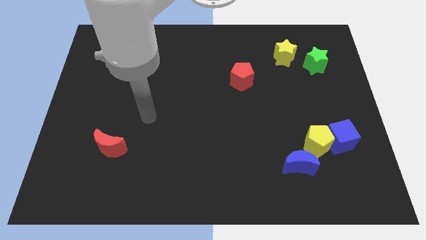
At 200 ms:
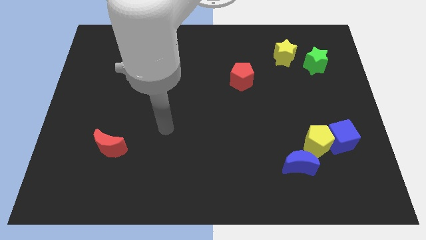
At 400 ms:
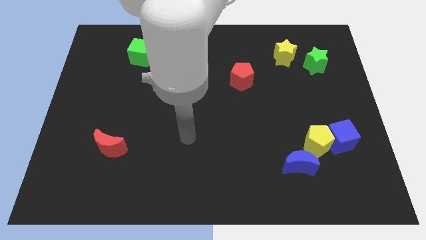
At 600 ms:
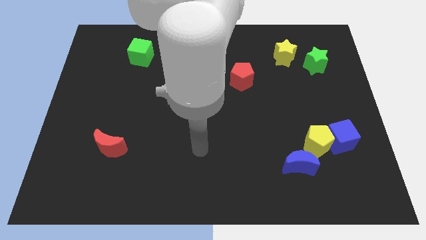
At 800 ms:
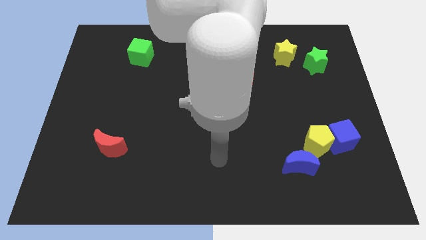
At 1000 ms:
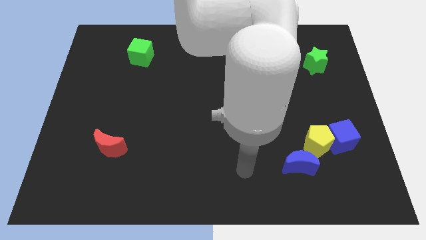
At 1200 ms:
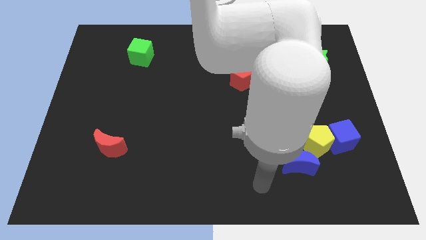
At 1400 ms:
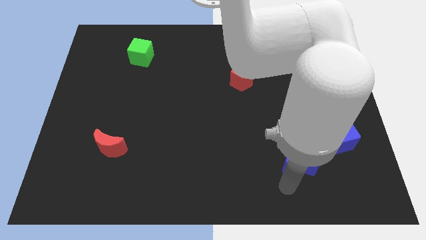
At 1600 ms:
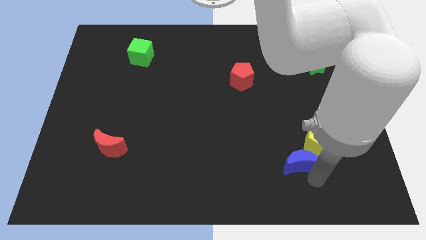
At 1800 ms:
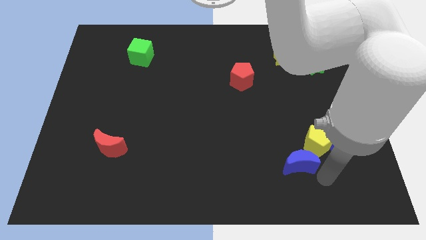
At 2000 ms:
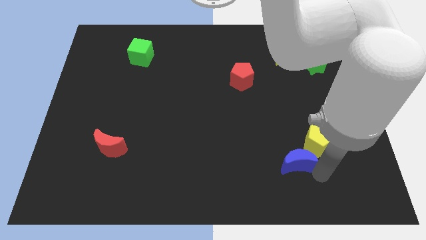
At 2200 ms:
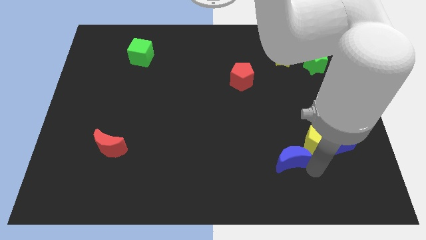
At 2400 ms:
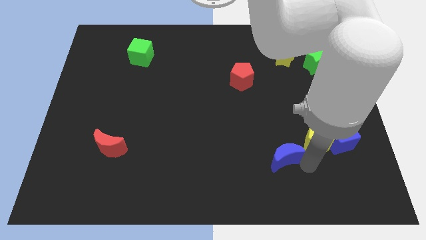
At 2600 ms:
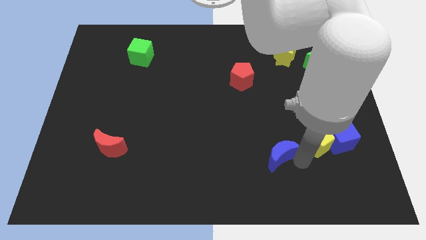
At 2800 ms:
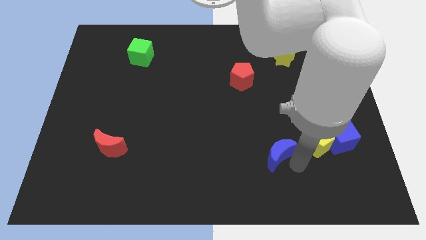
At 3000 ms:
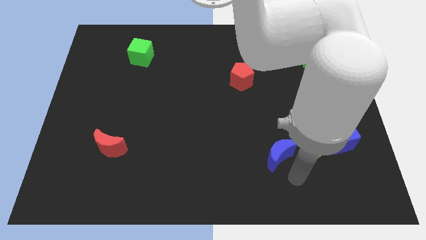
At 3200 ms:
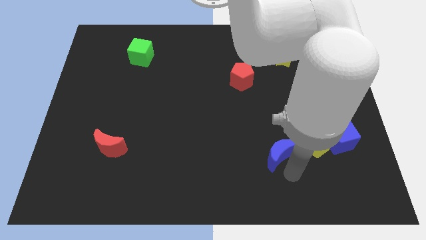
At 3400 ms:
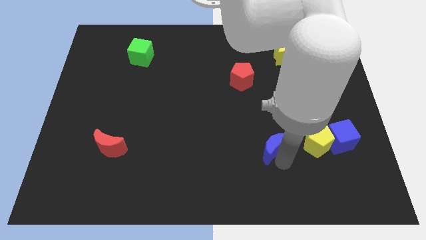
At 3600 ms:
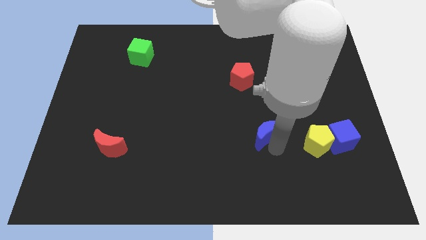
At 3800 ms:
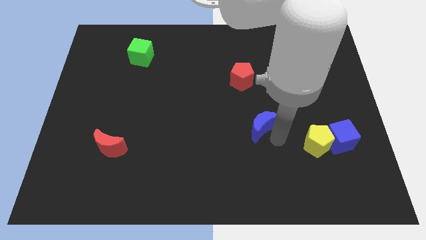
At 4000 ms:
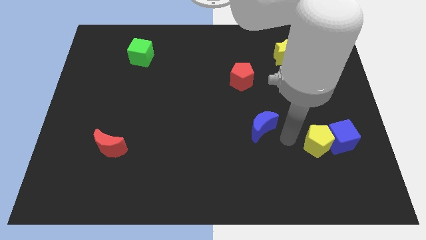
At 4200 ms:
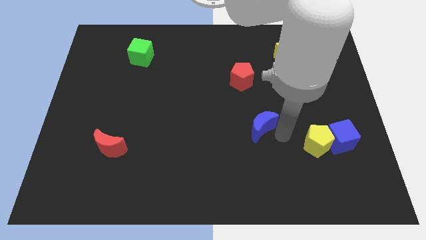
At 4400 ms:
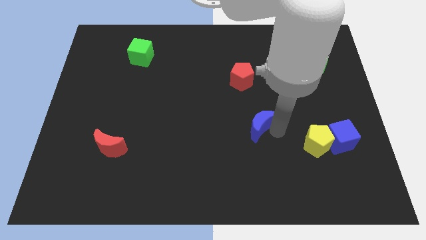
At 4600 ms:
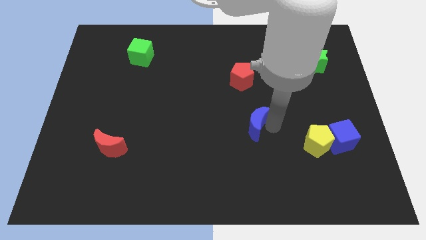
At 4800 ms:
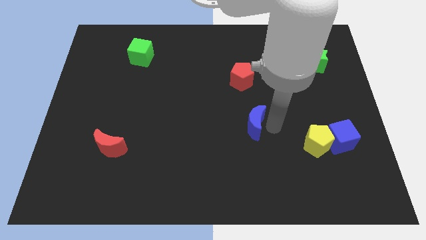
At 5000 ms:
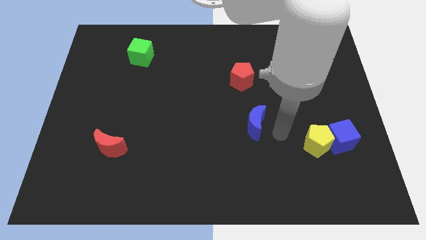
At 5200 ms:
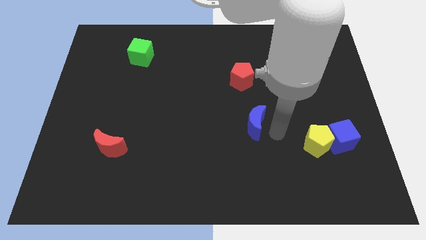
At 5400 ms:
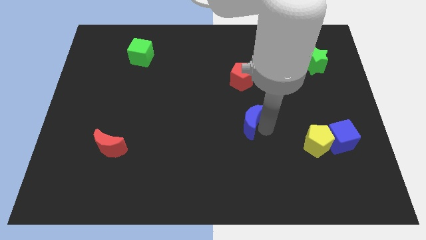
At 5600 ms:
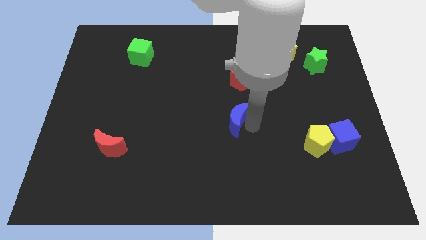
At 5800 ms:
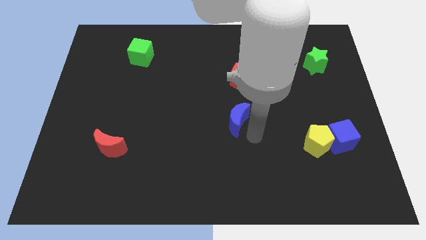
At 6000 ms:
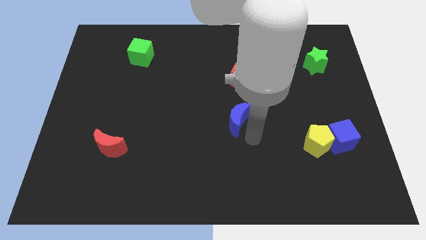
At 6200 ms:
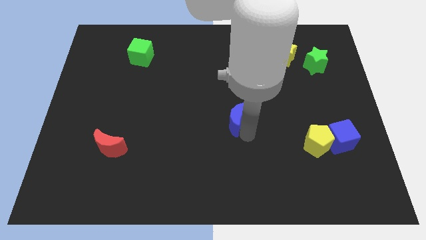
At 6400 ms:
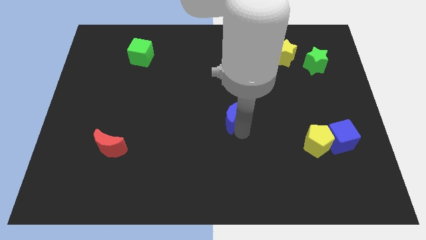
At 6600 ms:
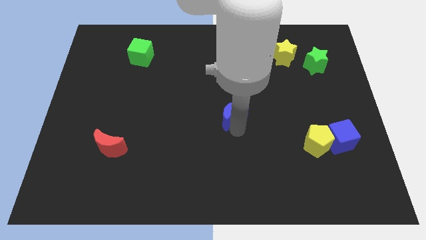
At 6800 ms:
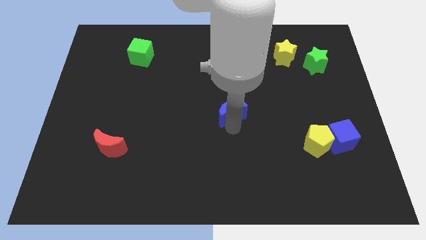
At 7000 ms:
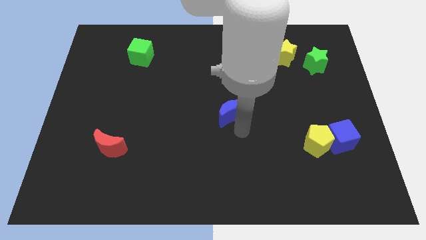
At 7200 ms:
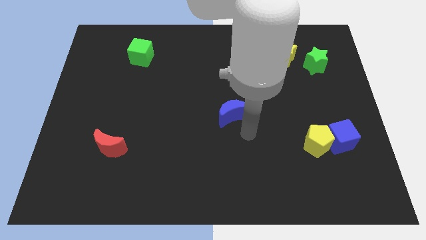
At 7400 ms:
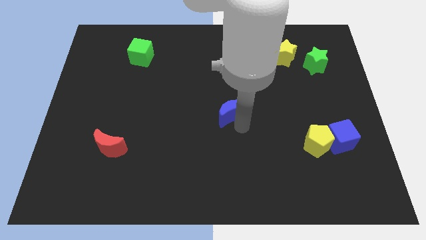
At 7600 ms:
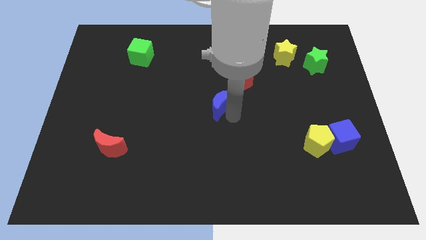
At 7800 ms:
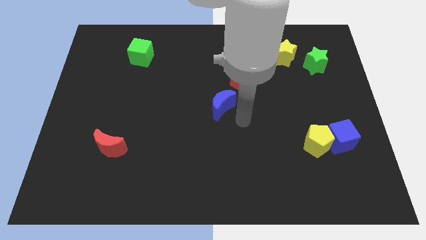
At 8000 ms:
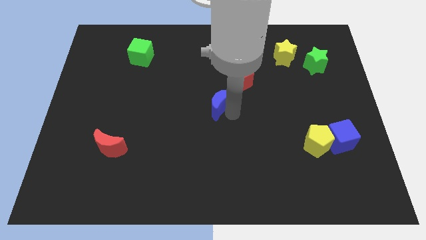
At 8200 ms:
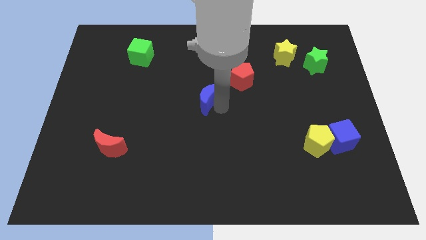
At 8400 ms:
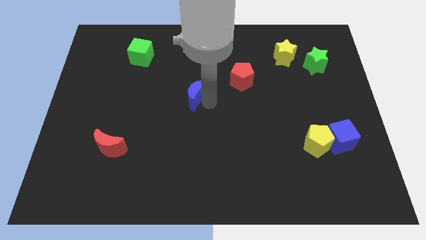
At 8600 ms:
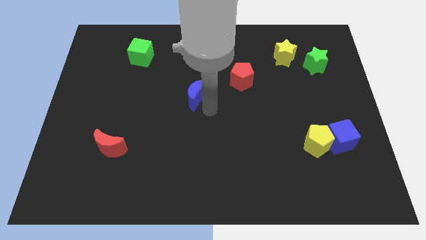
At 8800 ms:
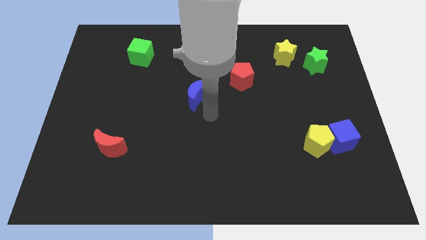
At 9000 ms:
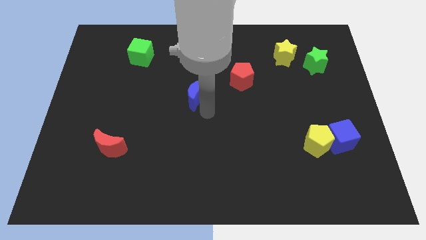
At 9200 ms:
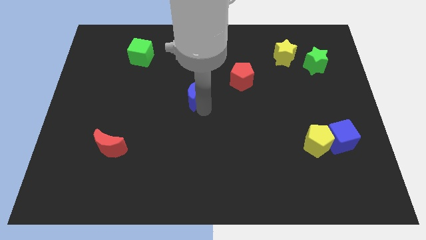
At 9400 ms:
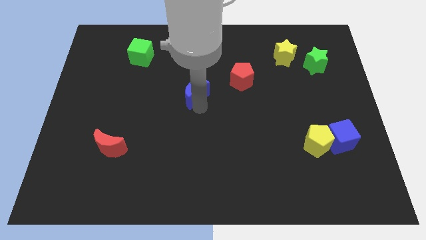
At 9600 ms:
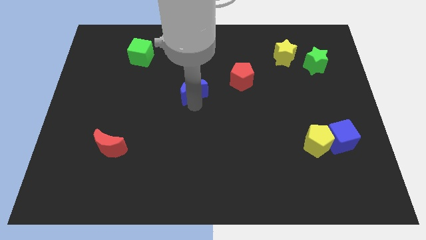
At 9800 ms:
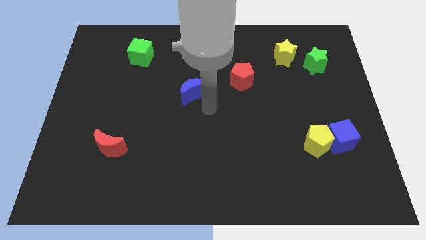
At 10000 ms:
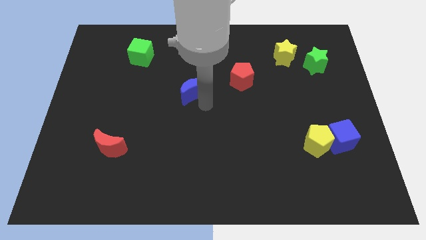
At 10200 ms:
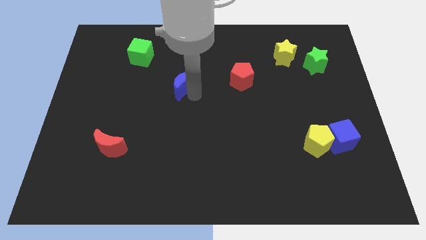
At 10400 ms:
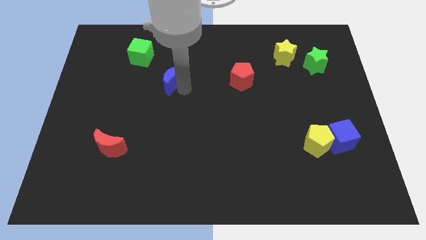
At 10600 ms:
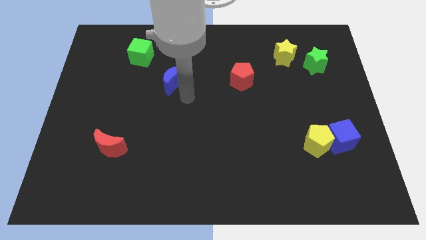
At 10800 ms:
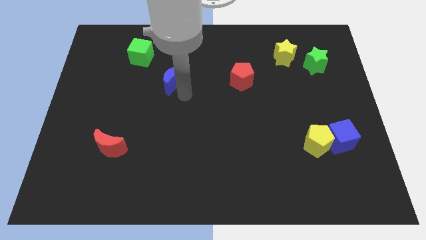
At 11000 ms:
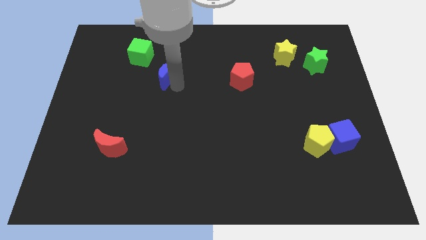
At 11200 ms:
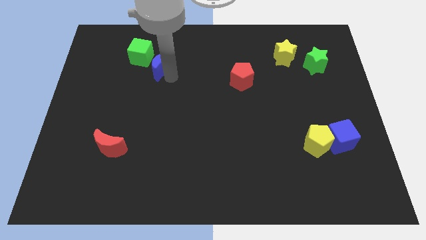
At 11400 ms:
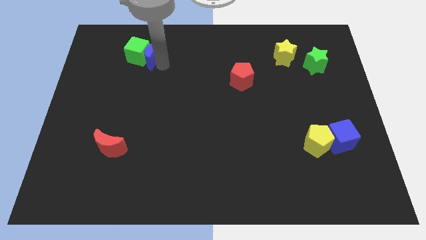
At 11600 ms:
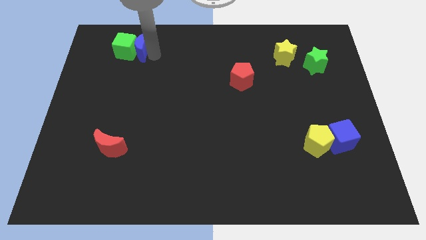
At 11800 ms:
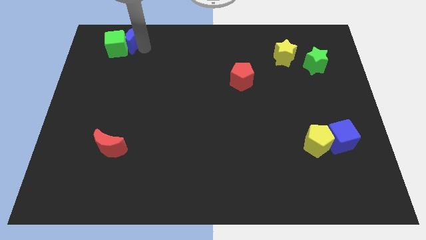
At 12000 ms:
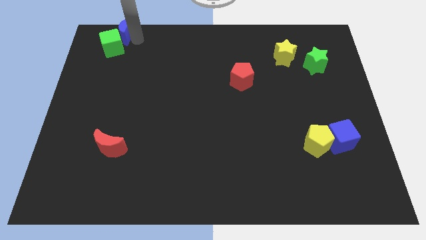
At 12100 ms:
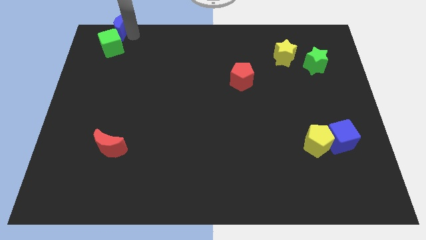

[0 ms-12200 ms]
put the blue moon to the top left corner
